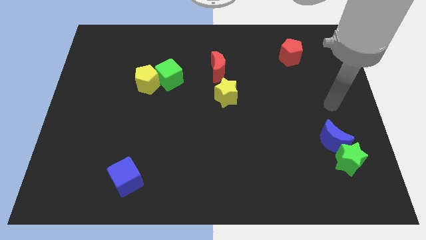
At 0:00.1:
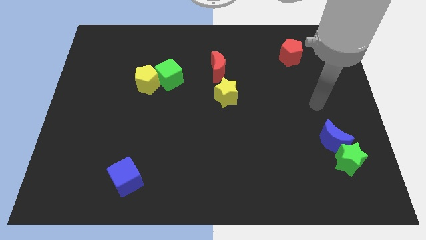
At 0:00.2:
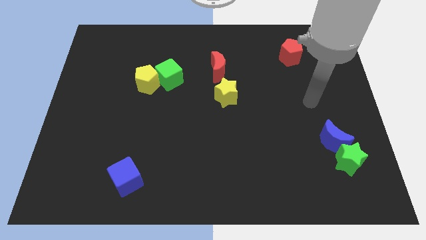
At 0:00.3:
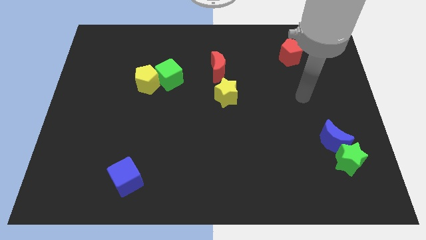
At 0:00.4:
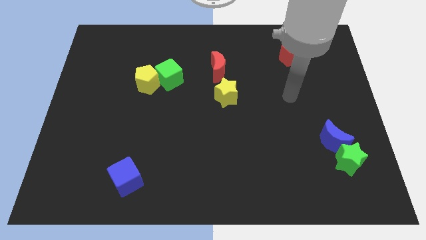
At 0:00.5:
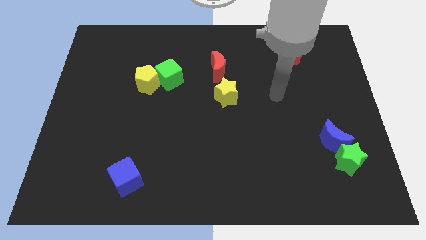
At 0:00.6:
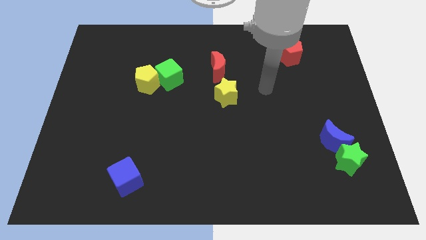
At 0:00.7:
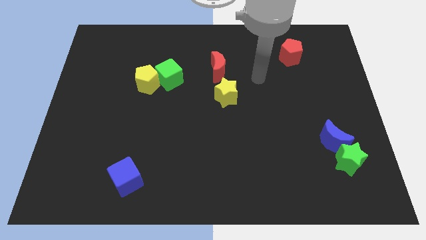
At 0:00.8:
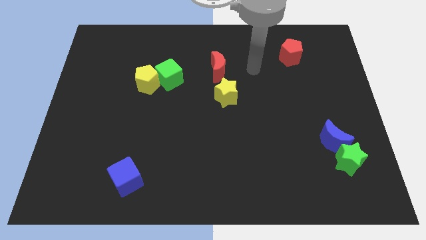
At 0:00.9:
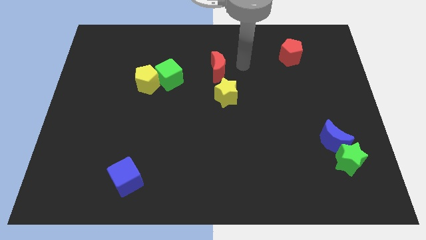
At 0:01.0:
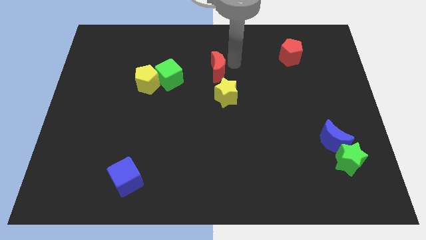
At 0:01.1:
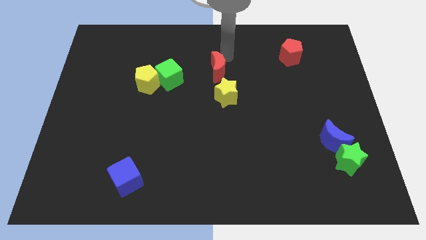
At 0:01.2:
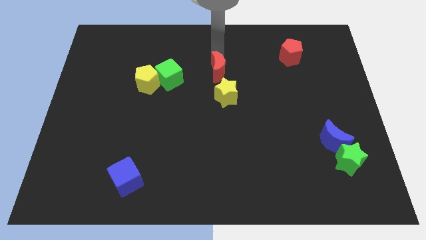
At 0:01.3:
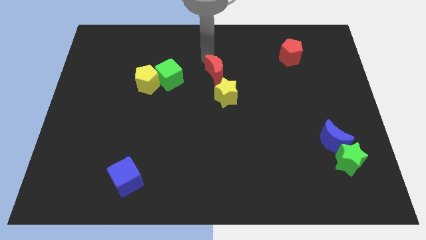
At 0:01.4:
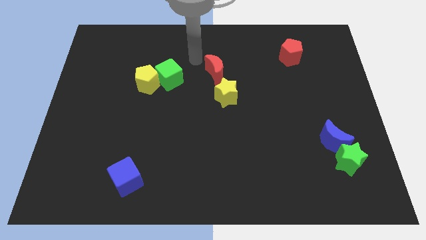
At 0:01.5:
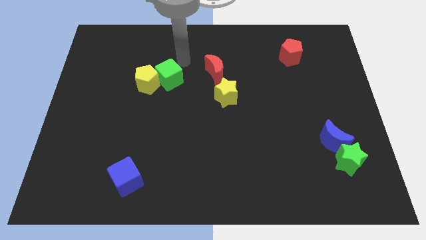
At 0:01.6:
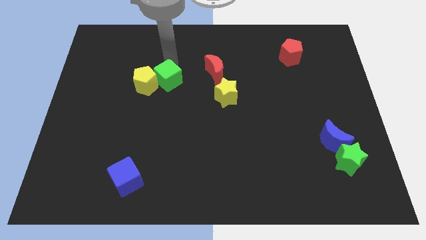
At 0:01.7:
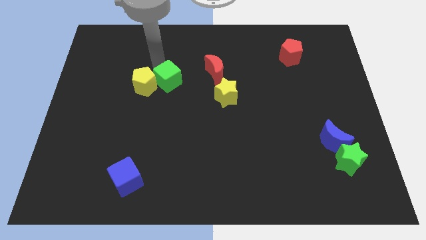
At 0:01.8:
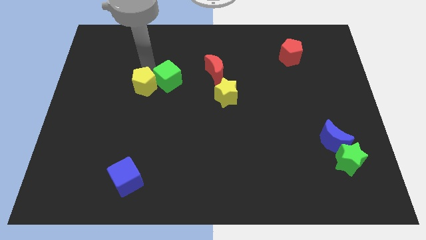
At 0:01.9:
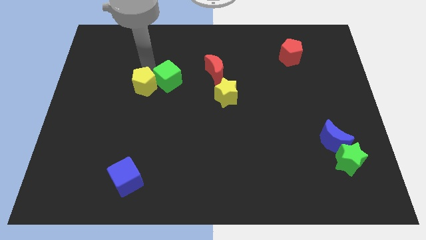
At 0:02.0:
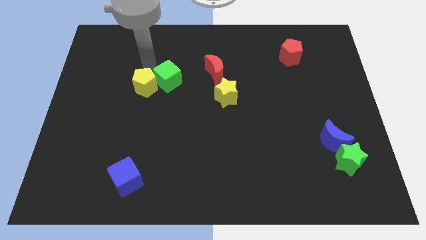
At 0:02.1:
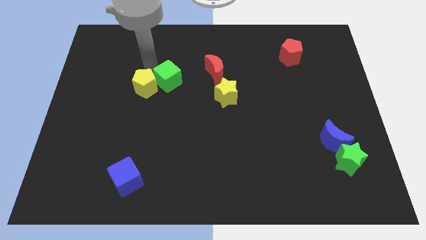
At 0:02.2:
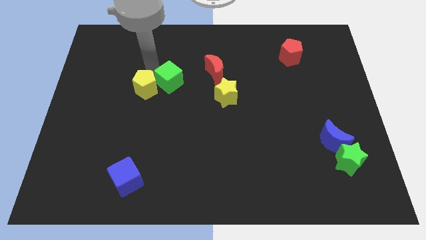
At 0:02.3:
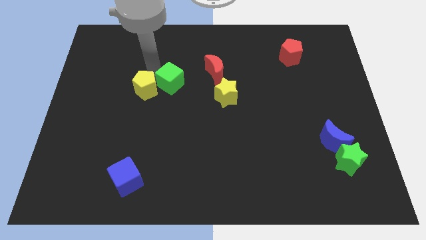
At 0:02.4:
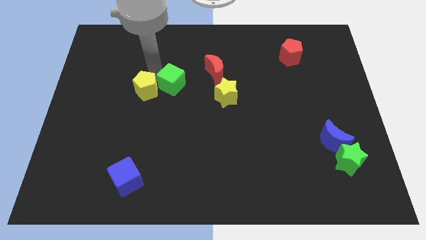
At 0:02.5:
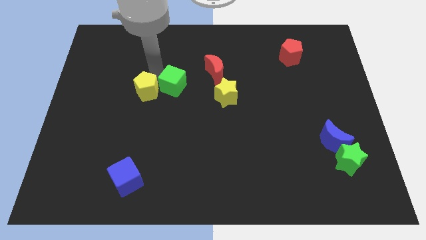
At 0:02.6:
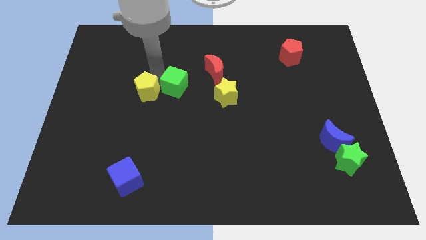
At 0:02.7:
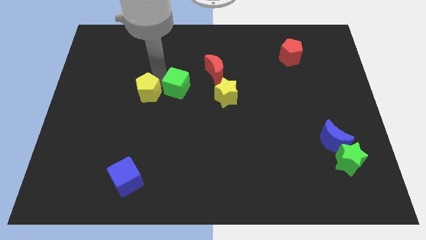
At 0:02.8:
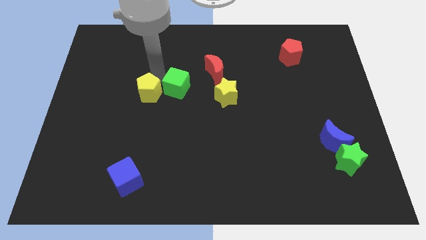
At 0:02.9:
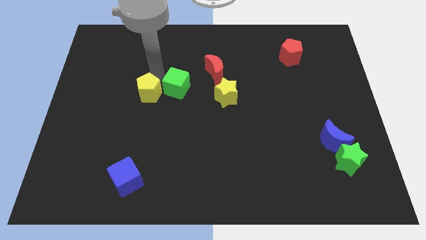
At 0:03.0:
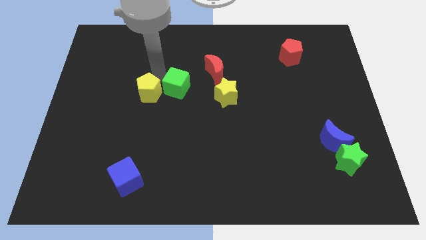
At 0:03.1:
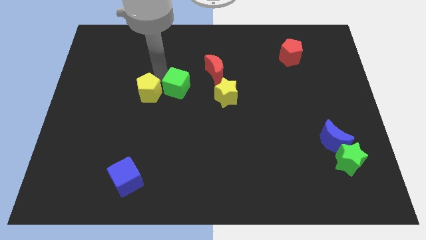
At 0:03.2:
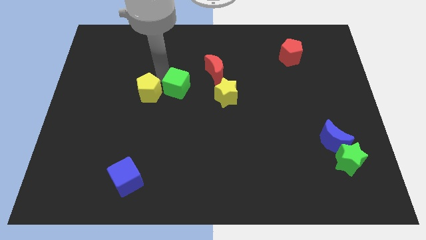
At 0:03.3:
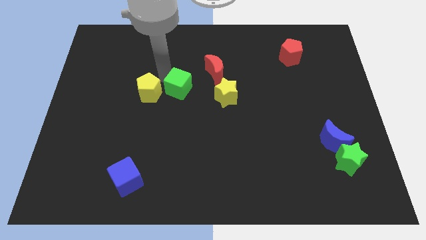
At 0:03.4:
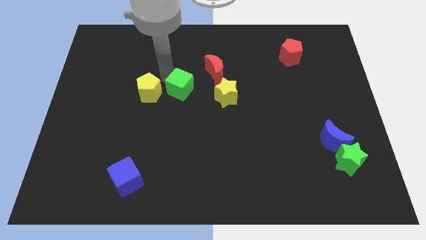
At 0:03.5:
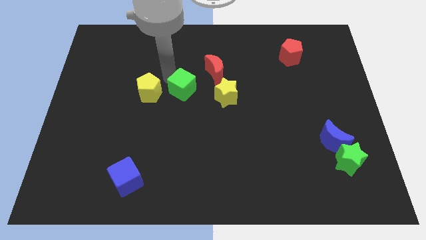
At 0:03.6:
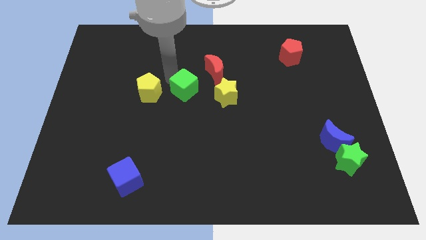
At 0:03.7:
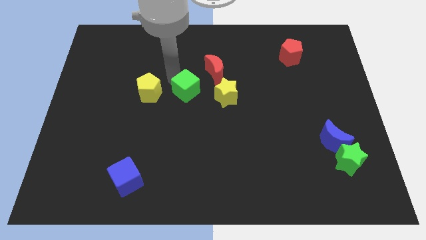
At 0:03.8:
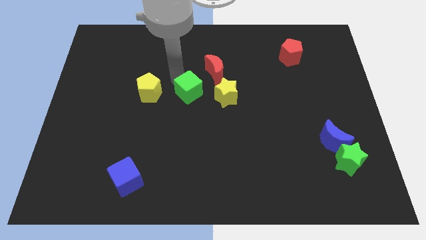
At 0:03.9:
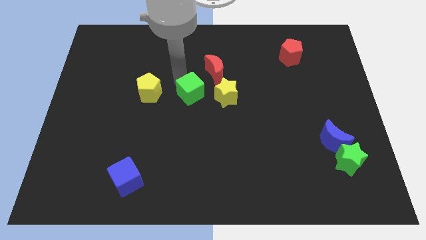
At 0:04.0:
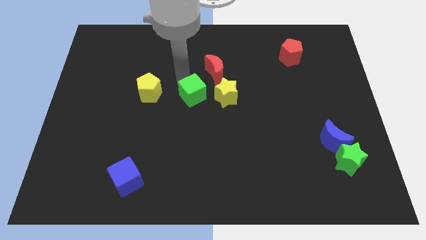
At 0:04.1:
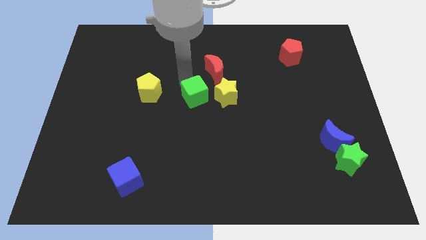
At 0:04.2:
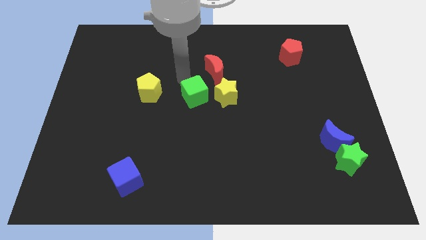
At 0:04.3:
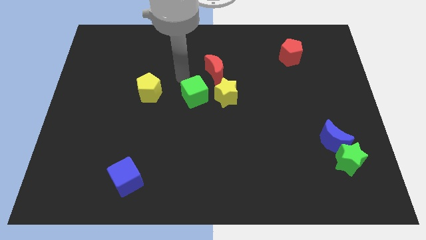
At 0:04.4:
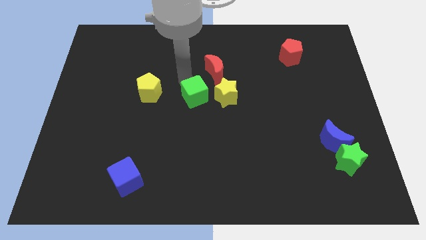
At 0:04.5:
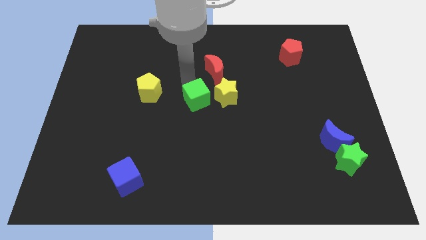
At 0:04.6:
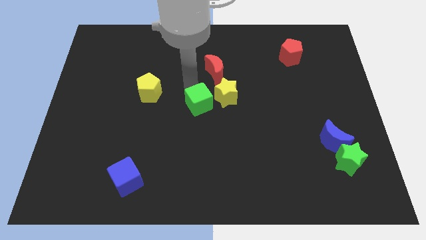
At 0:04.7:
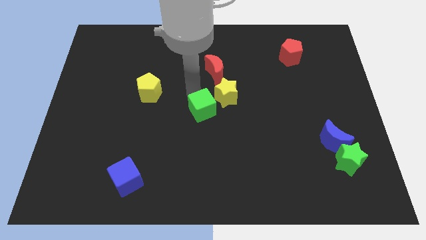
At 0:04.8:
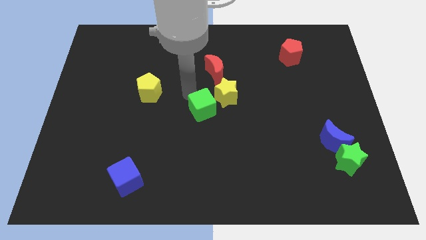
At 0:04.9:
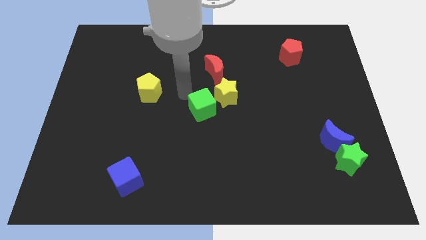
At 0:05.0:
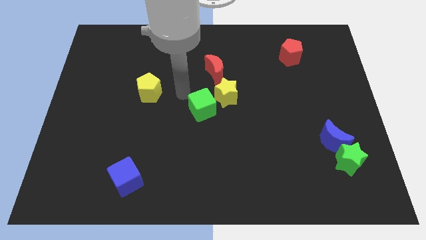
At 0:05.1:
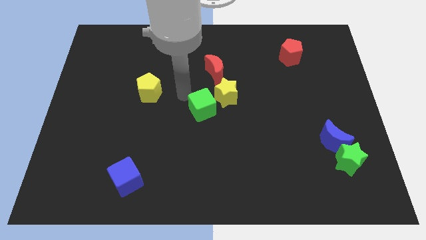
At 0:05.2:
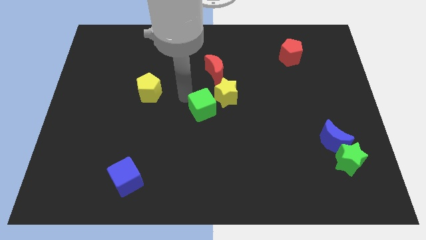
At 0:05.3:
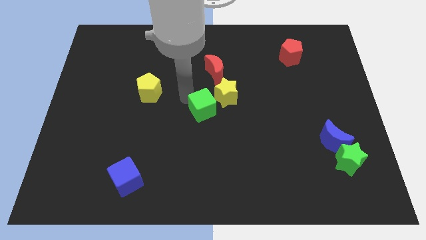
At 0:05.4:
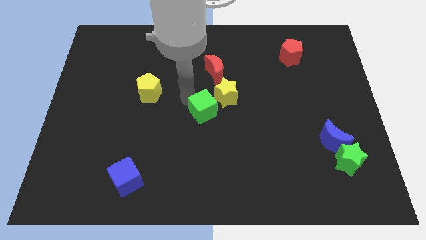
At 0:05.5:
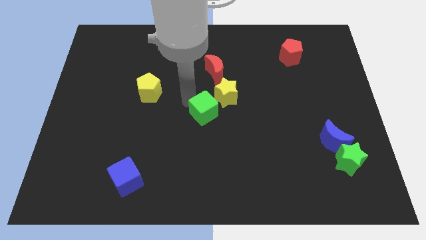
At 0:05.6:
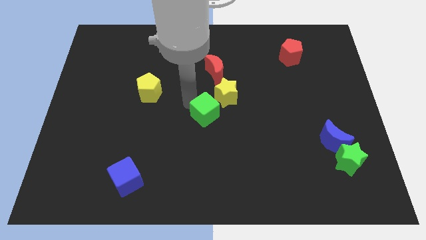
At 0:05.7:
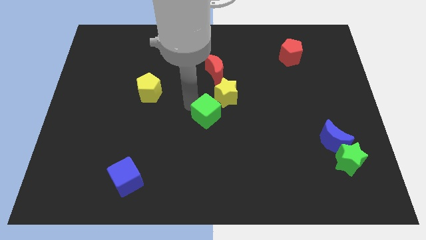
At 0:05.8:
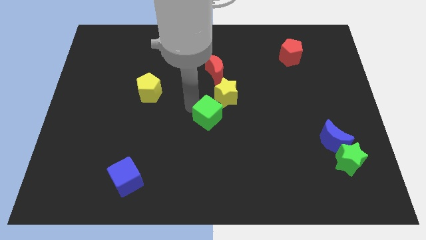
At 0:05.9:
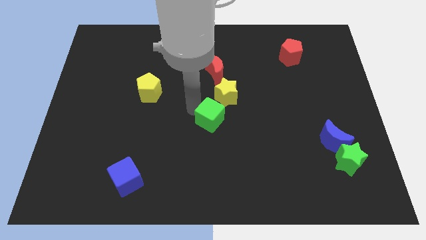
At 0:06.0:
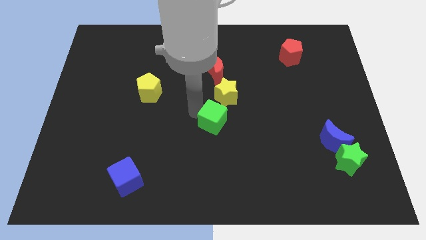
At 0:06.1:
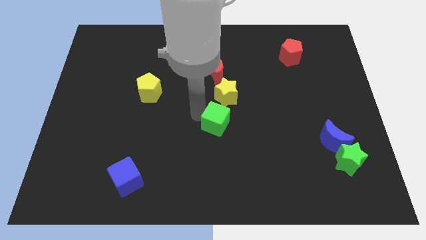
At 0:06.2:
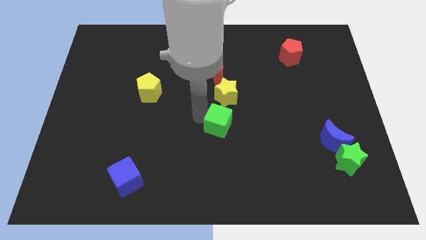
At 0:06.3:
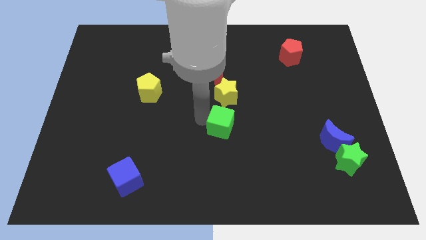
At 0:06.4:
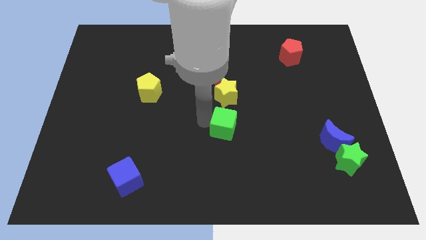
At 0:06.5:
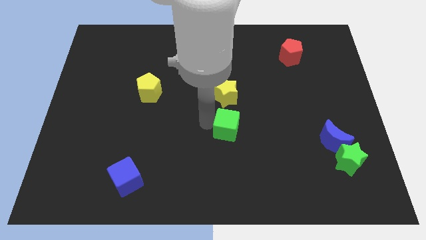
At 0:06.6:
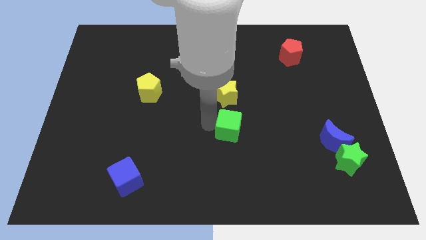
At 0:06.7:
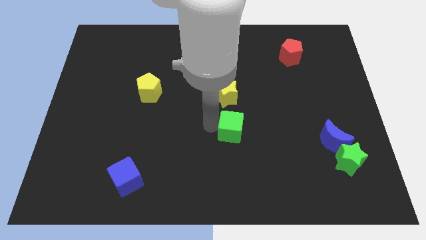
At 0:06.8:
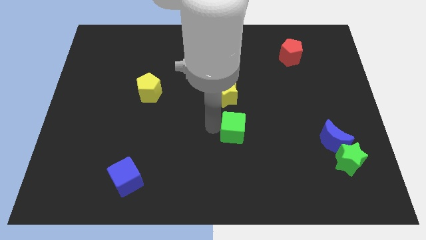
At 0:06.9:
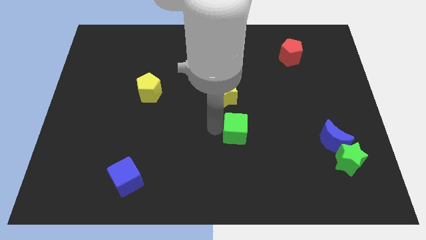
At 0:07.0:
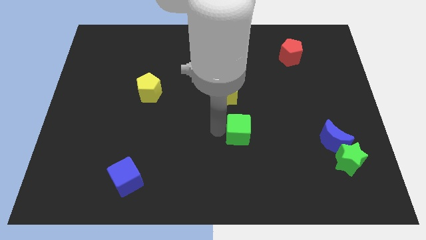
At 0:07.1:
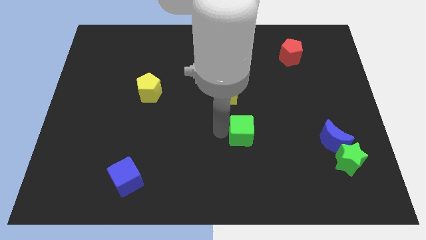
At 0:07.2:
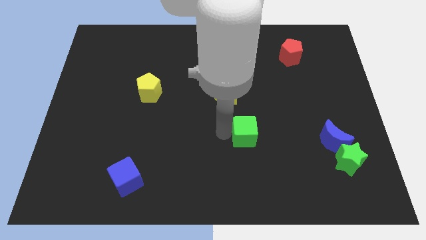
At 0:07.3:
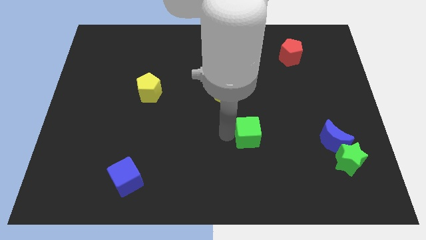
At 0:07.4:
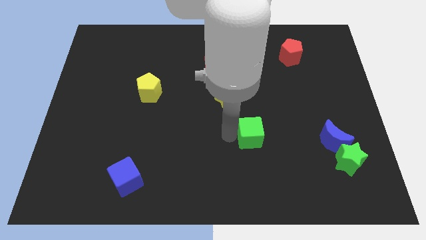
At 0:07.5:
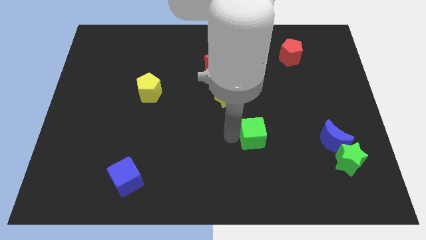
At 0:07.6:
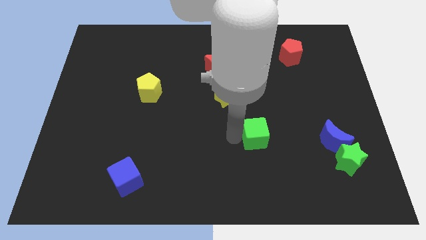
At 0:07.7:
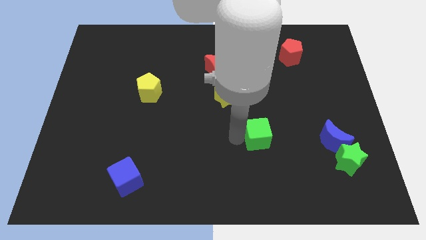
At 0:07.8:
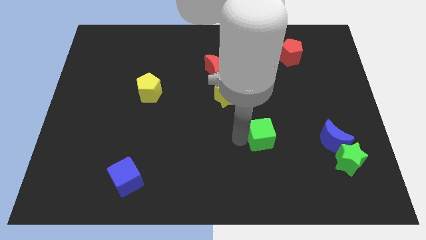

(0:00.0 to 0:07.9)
put the green cube just left of the blue moon
